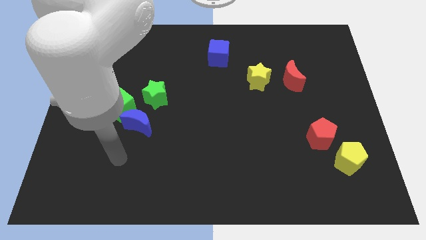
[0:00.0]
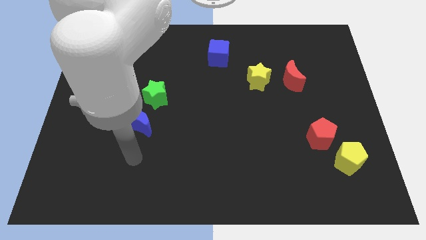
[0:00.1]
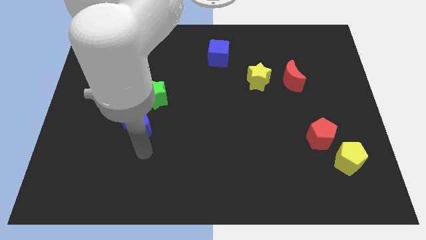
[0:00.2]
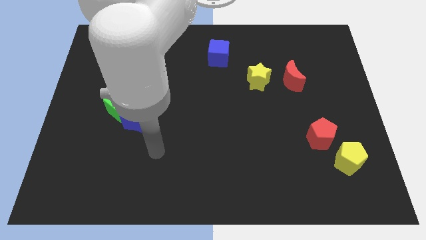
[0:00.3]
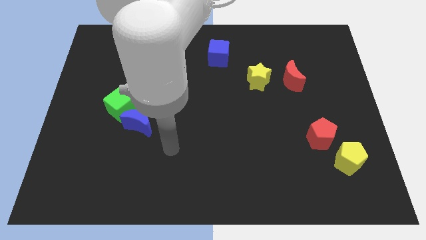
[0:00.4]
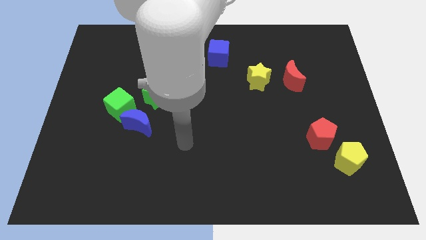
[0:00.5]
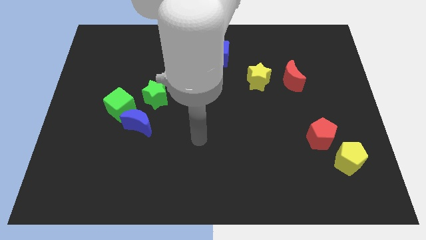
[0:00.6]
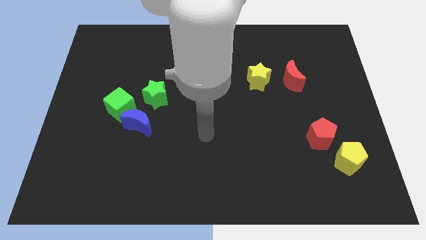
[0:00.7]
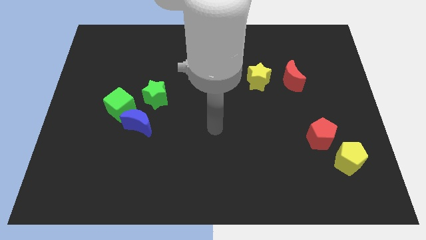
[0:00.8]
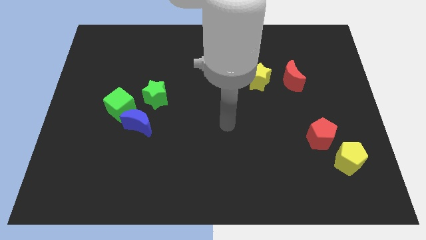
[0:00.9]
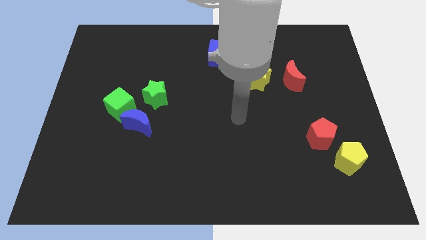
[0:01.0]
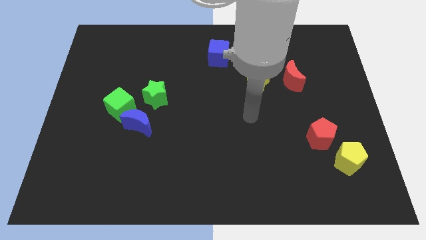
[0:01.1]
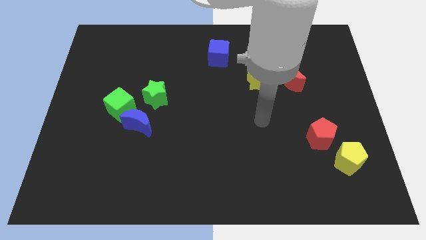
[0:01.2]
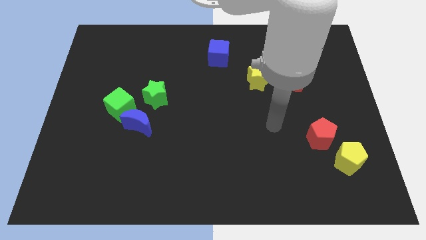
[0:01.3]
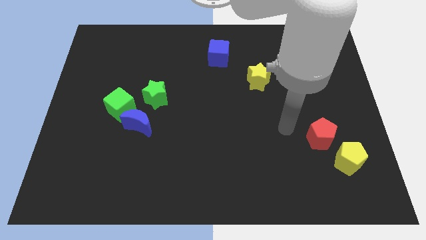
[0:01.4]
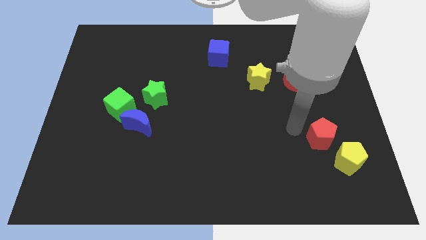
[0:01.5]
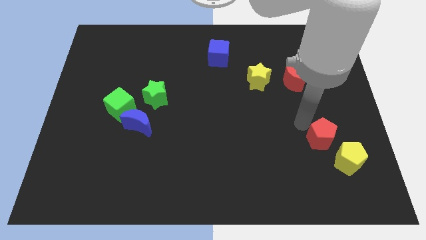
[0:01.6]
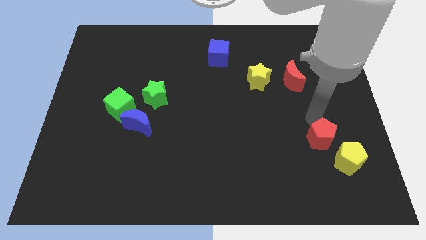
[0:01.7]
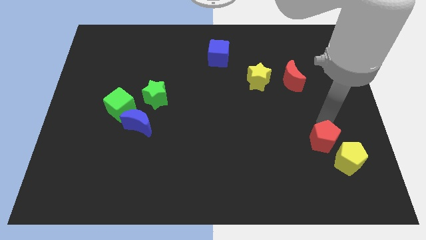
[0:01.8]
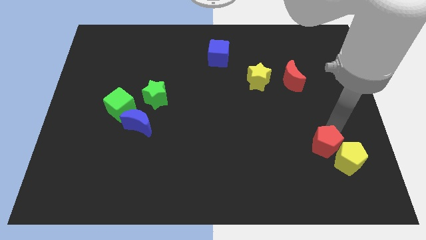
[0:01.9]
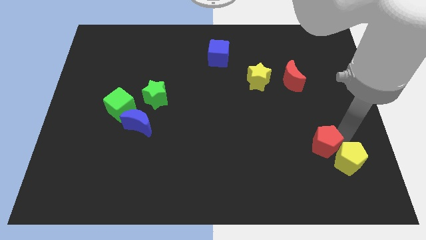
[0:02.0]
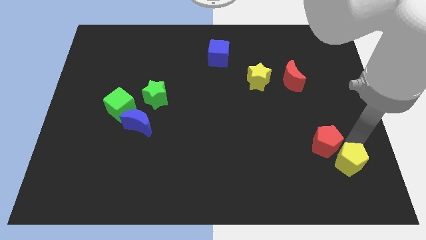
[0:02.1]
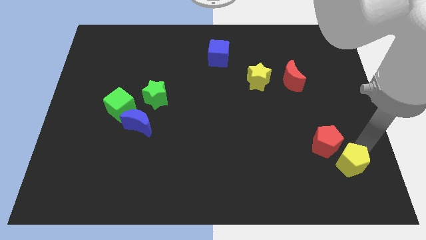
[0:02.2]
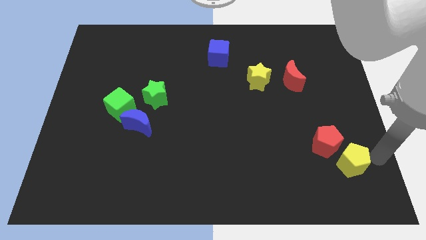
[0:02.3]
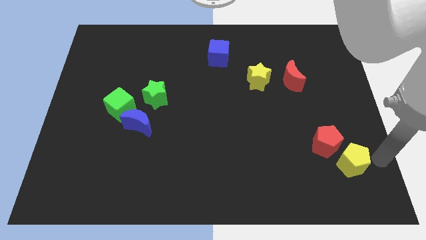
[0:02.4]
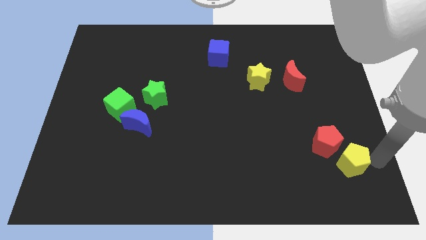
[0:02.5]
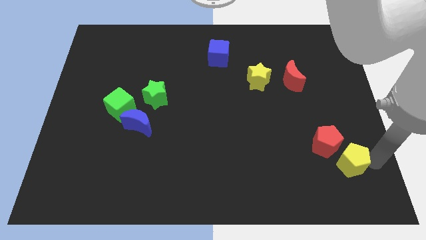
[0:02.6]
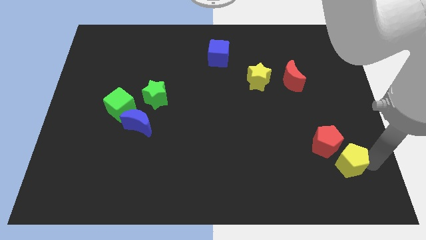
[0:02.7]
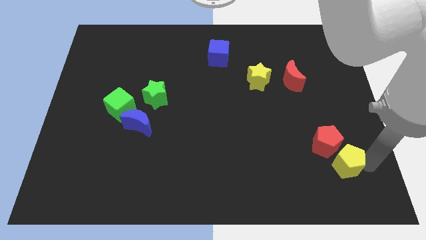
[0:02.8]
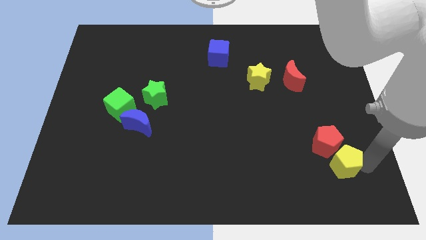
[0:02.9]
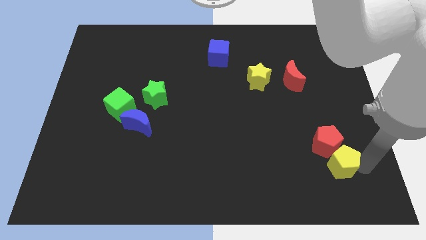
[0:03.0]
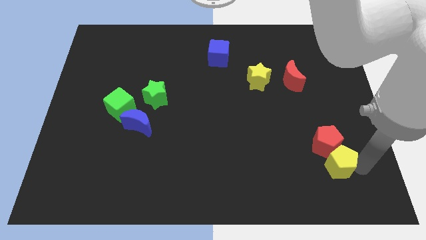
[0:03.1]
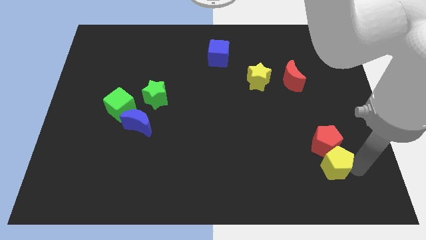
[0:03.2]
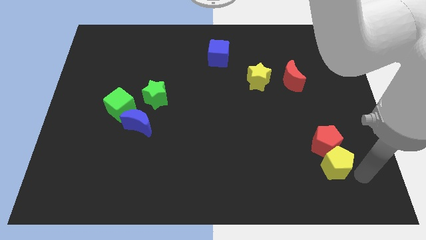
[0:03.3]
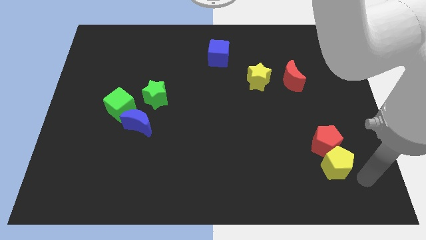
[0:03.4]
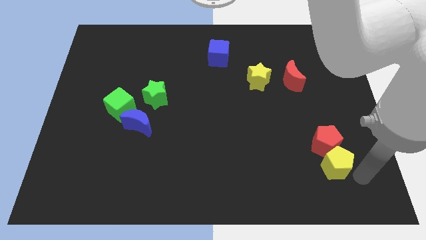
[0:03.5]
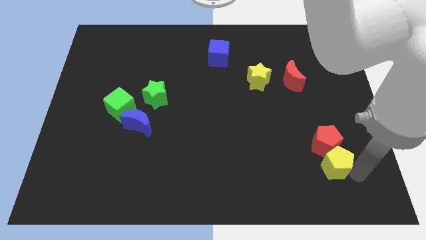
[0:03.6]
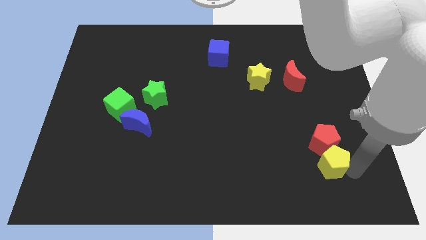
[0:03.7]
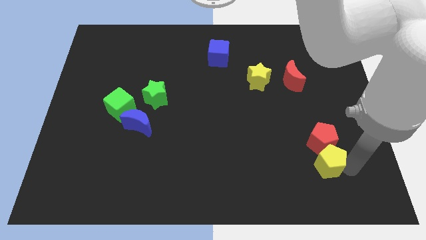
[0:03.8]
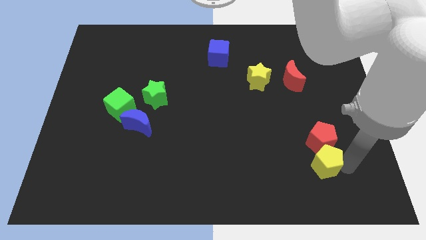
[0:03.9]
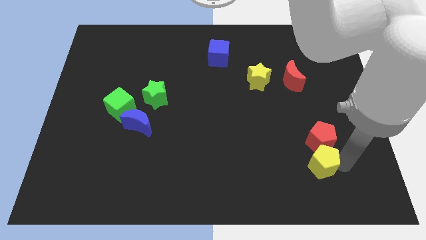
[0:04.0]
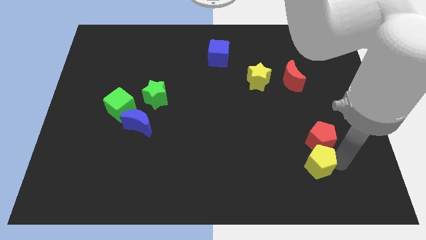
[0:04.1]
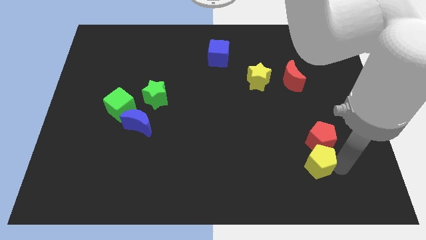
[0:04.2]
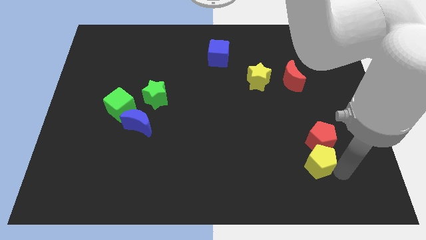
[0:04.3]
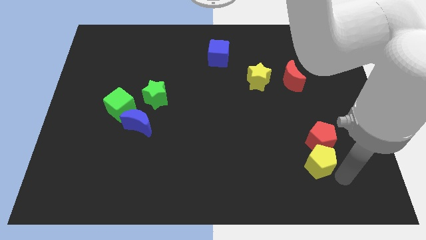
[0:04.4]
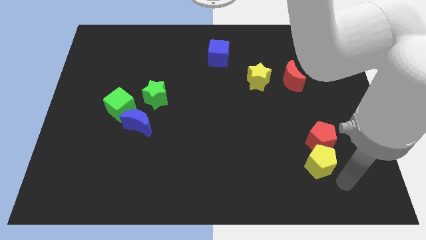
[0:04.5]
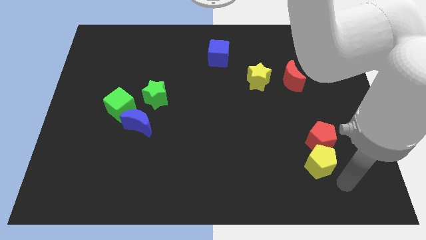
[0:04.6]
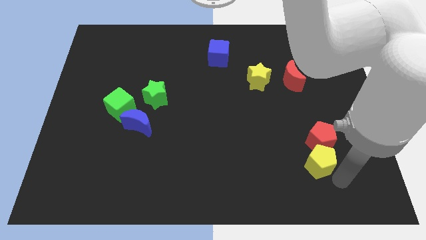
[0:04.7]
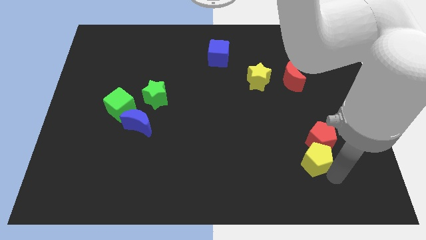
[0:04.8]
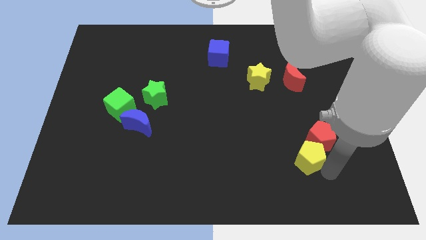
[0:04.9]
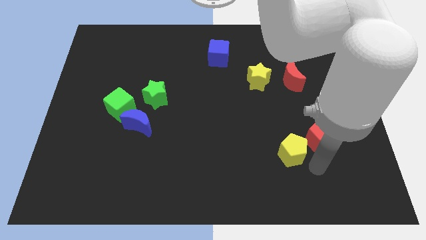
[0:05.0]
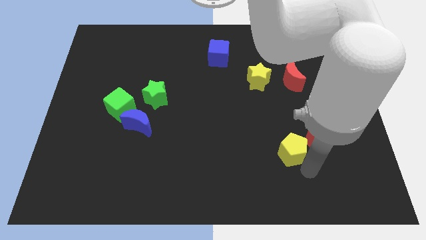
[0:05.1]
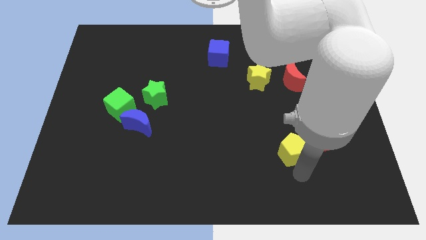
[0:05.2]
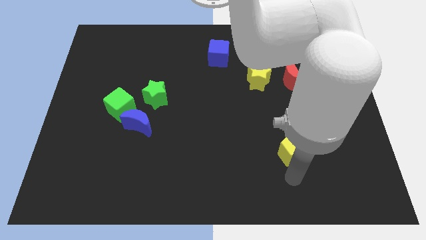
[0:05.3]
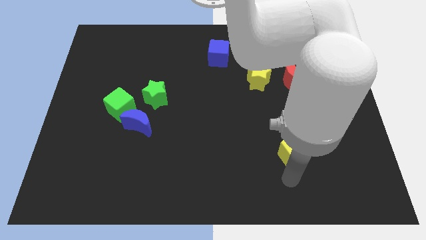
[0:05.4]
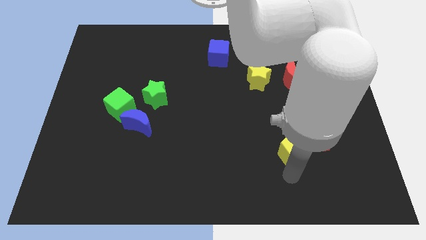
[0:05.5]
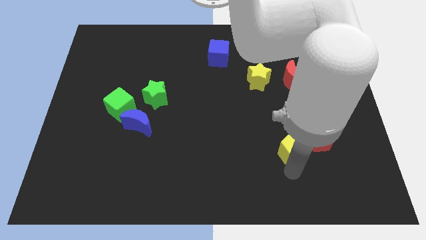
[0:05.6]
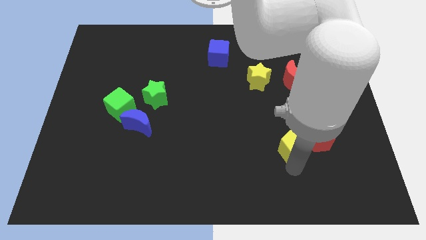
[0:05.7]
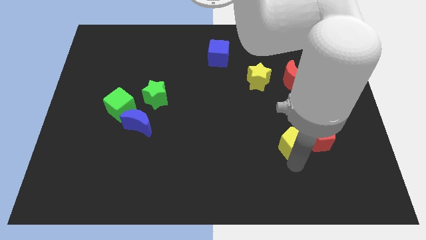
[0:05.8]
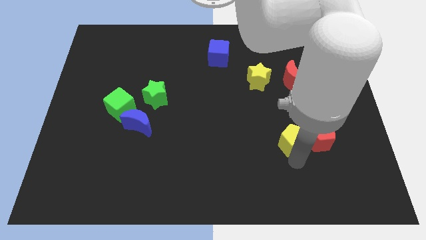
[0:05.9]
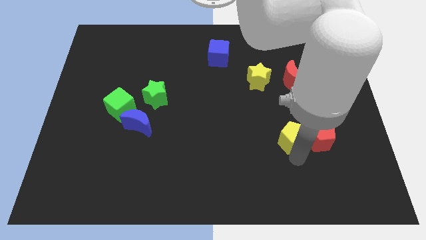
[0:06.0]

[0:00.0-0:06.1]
put the yellow pentagon to the top left of the red pentagon

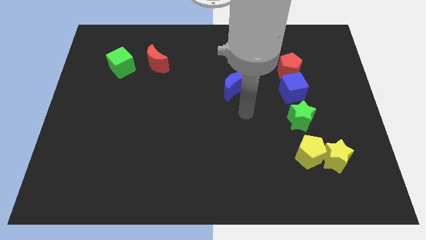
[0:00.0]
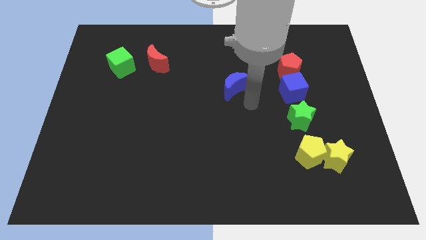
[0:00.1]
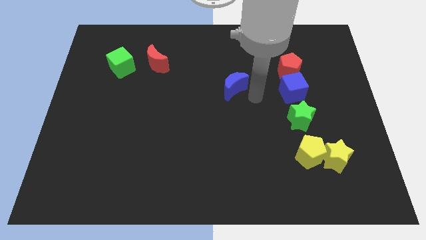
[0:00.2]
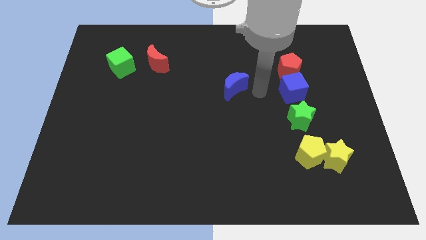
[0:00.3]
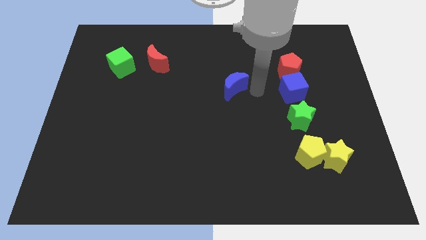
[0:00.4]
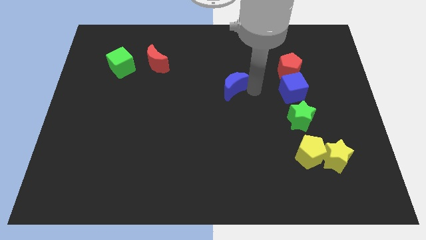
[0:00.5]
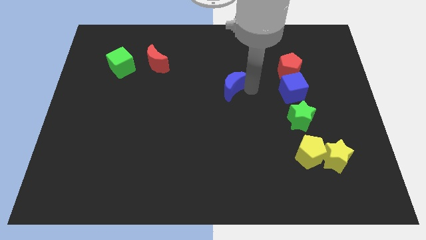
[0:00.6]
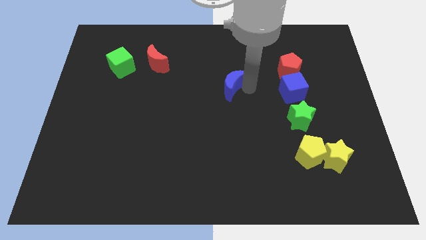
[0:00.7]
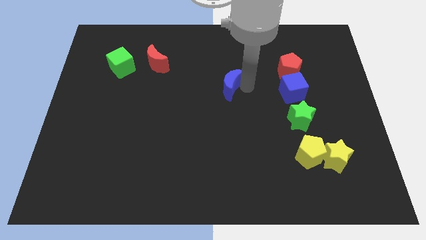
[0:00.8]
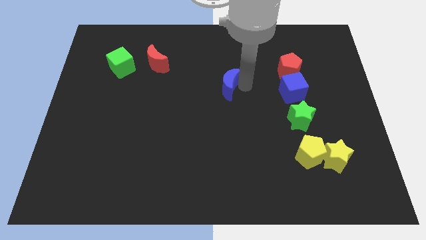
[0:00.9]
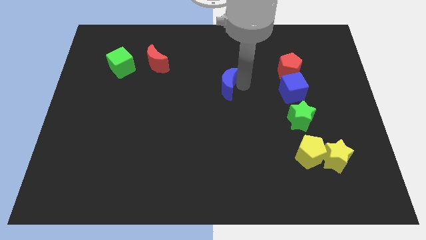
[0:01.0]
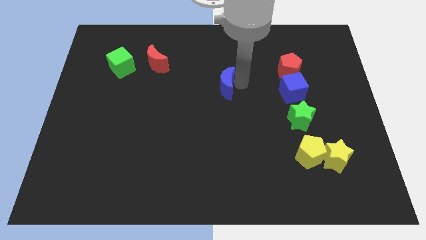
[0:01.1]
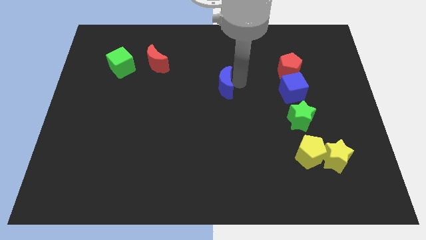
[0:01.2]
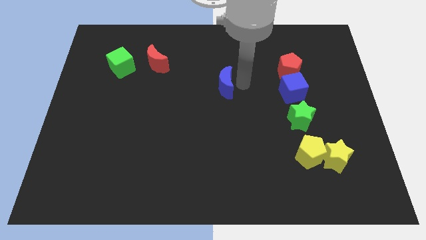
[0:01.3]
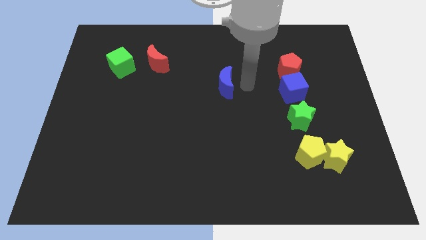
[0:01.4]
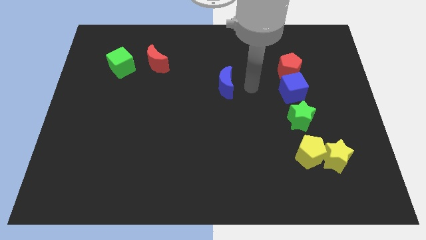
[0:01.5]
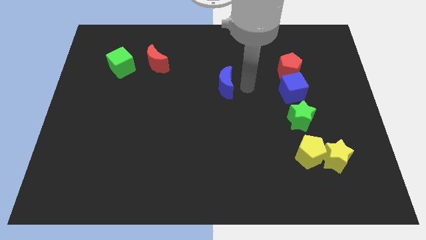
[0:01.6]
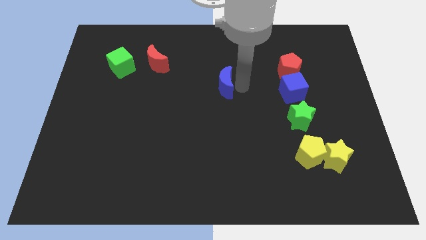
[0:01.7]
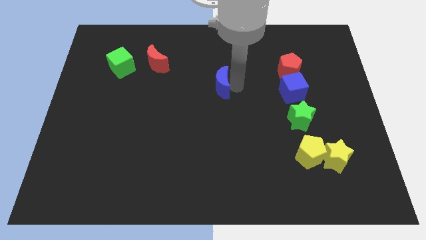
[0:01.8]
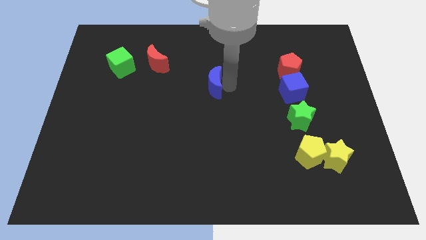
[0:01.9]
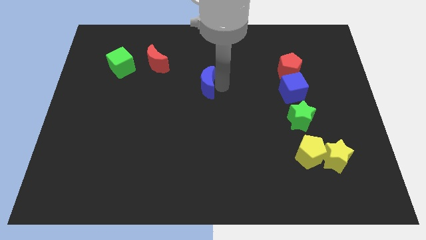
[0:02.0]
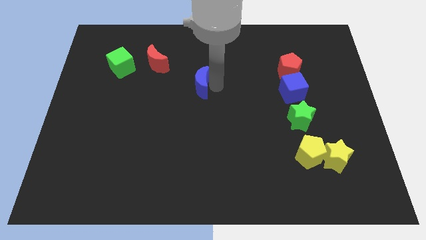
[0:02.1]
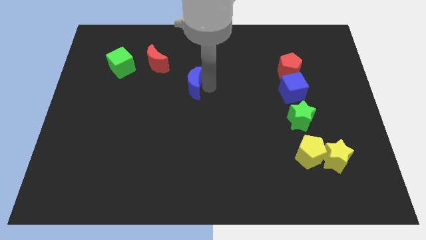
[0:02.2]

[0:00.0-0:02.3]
put the blue moon to the bottom right side of the red moon
